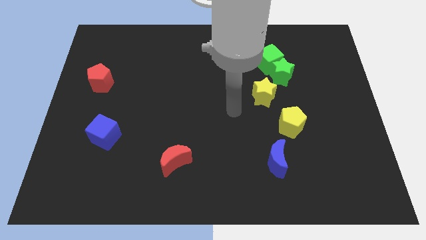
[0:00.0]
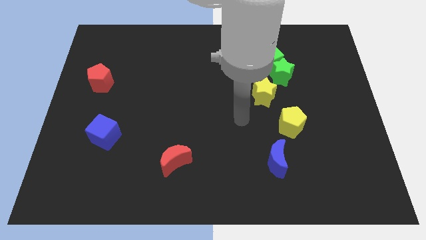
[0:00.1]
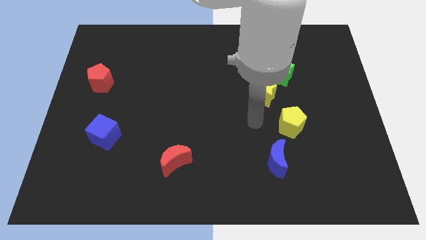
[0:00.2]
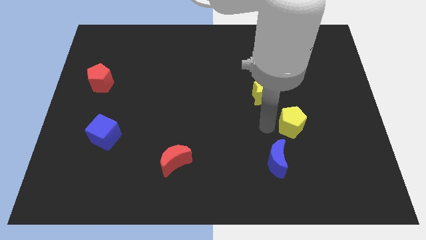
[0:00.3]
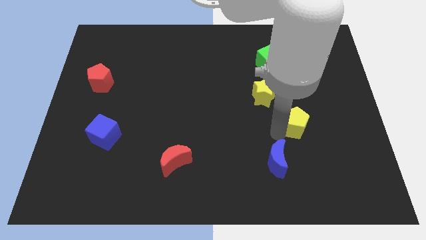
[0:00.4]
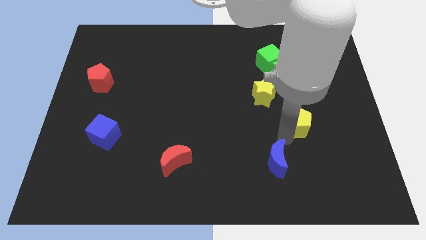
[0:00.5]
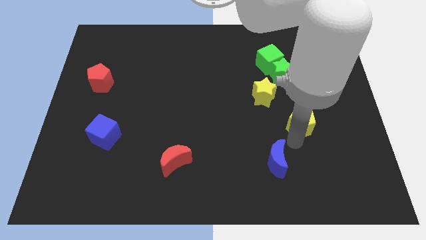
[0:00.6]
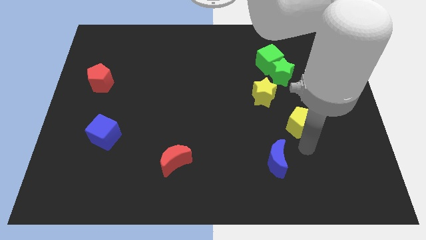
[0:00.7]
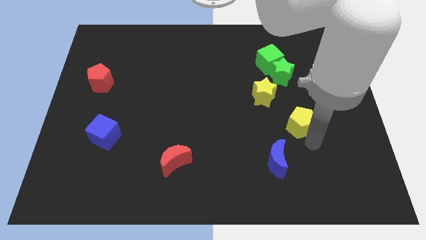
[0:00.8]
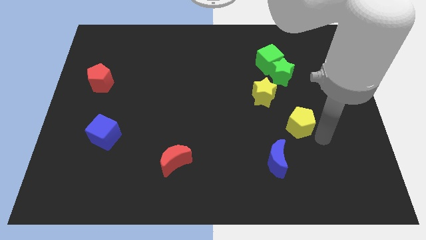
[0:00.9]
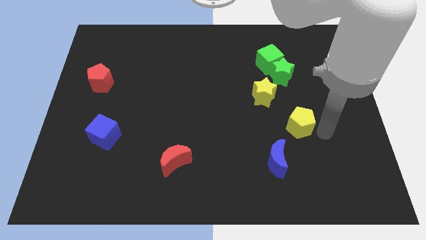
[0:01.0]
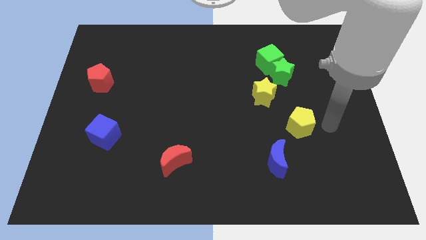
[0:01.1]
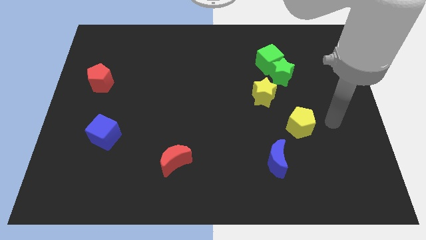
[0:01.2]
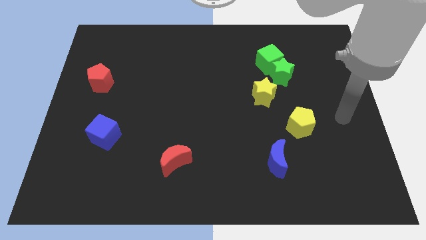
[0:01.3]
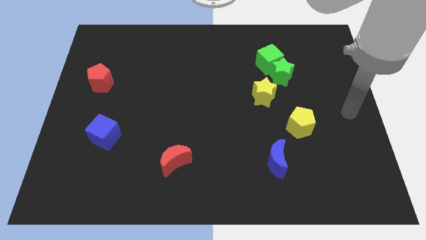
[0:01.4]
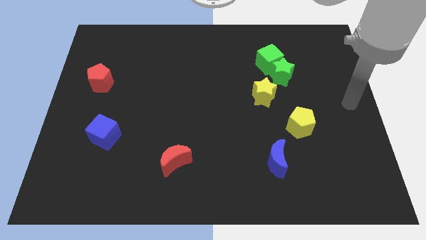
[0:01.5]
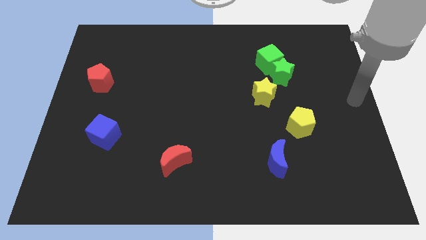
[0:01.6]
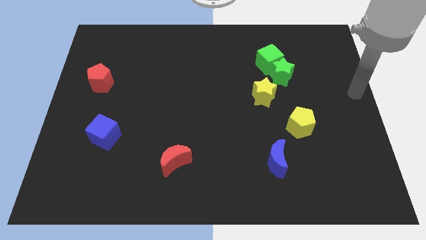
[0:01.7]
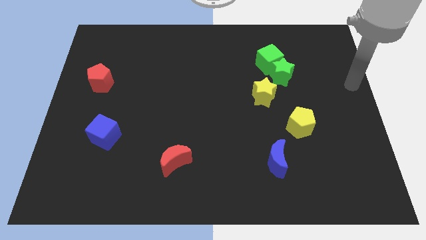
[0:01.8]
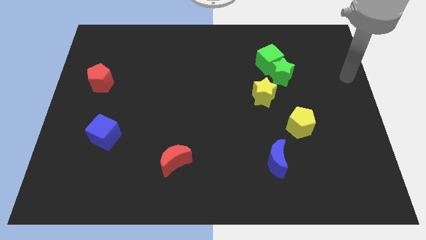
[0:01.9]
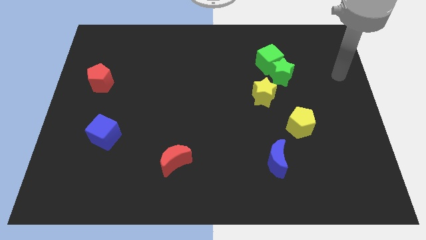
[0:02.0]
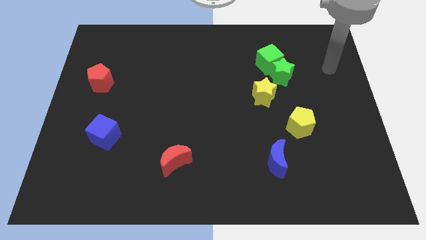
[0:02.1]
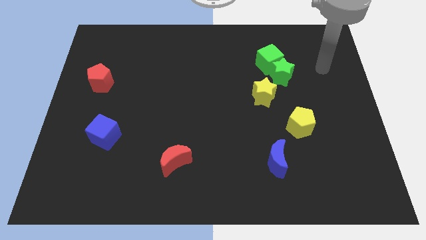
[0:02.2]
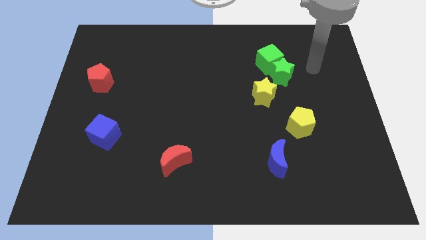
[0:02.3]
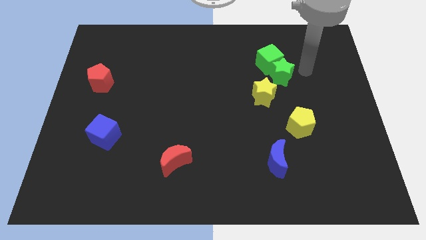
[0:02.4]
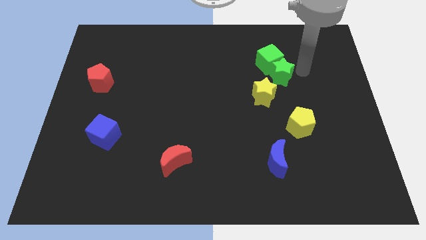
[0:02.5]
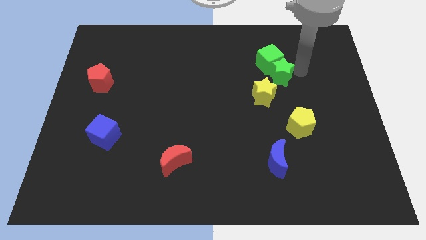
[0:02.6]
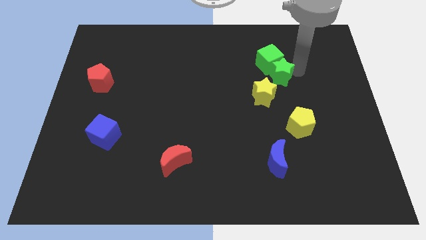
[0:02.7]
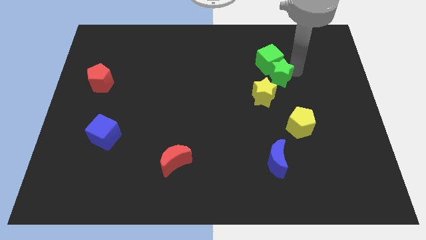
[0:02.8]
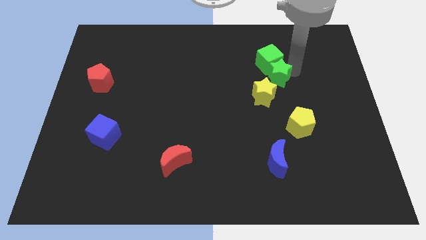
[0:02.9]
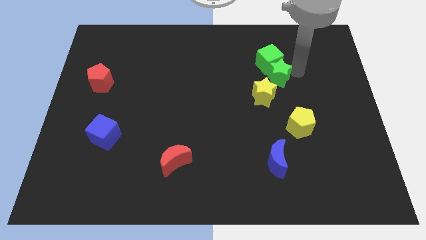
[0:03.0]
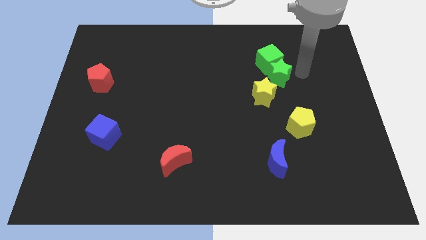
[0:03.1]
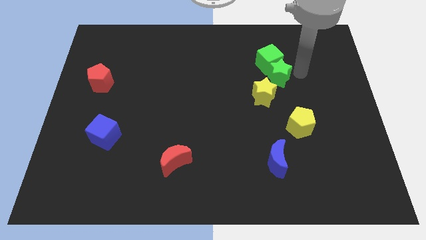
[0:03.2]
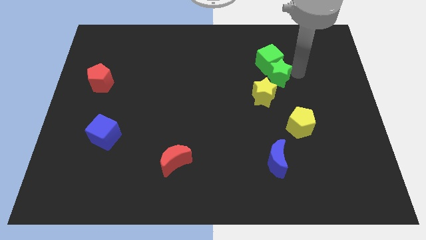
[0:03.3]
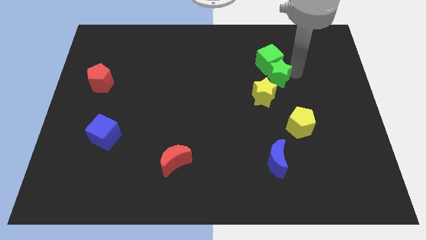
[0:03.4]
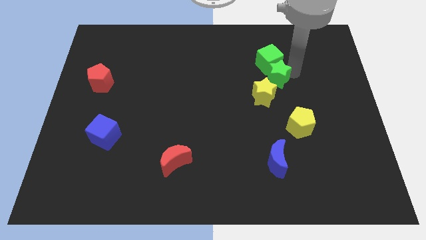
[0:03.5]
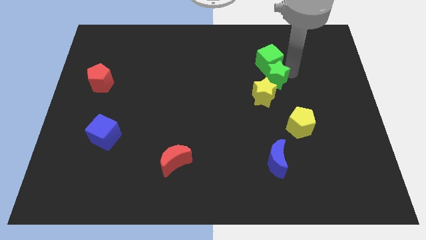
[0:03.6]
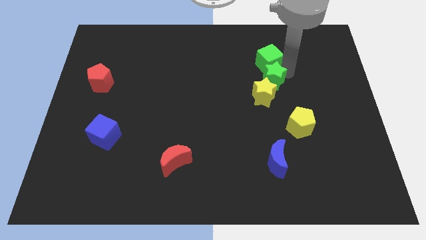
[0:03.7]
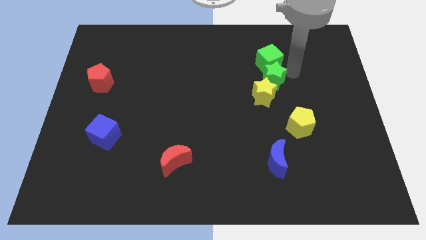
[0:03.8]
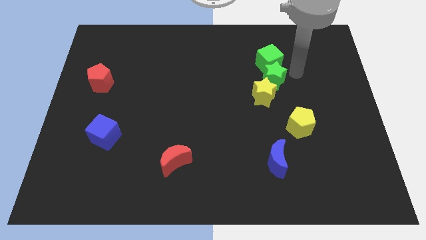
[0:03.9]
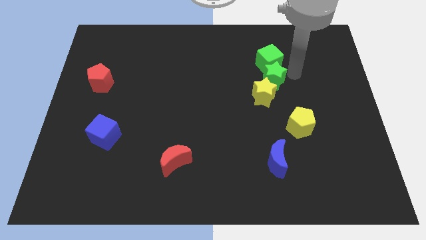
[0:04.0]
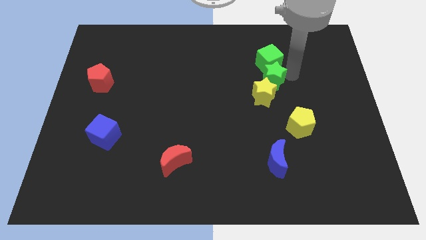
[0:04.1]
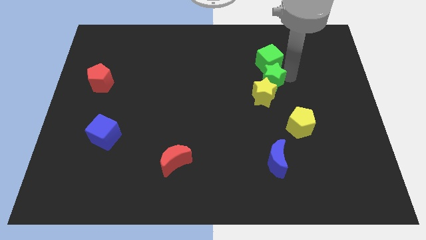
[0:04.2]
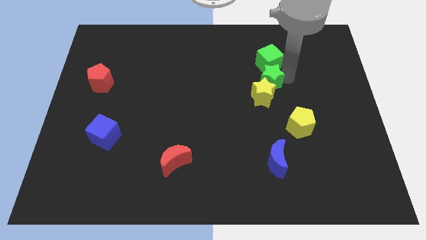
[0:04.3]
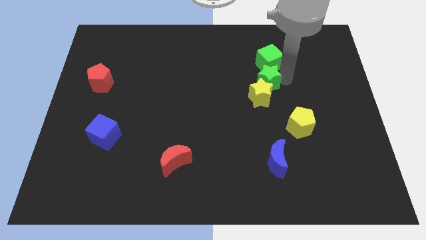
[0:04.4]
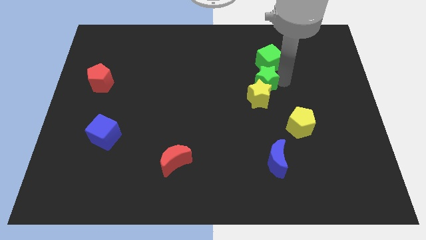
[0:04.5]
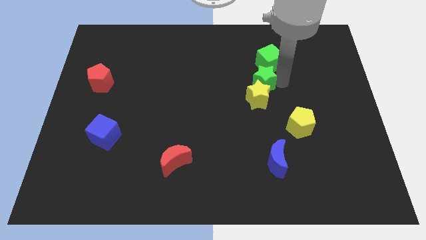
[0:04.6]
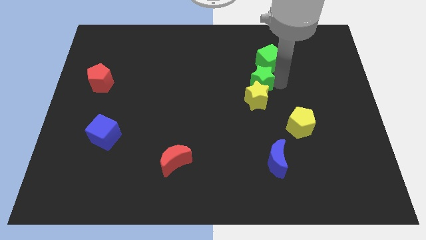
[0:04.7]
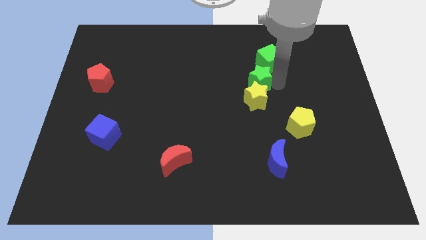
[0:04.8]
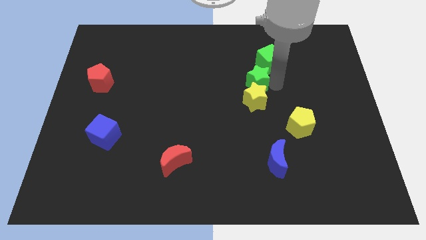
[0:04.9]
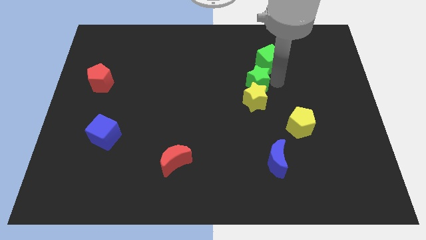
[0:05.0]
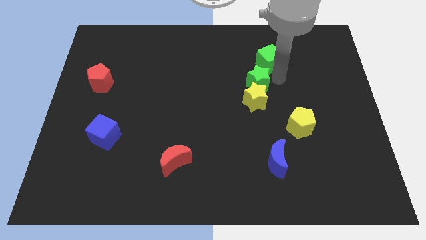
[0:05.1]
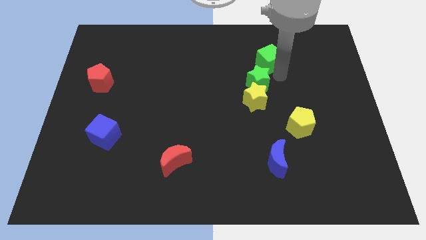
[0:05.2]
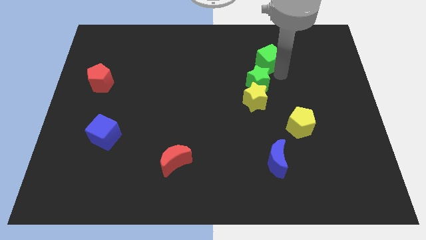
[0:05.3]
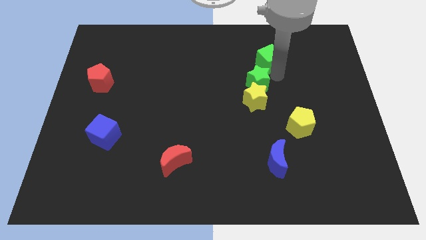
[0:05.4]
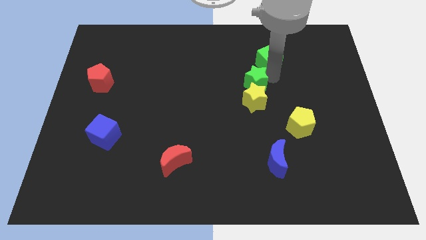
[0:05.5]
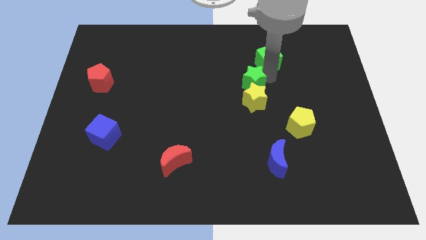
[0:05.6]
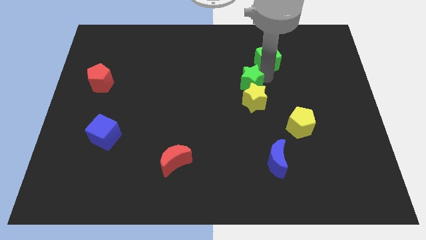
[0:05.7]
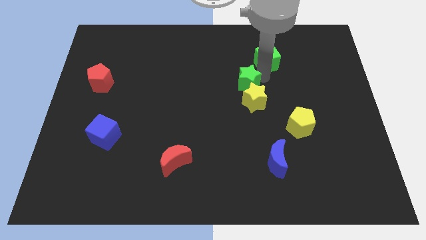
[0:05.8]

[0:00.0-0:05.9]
move the green star a bit downwards and left

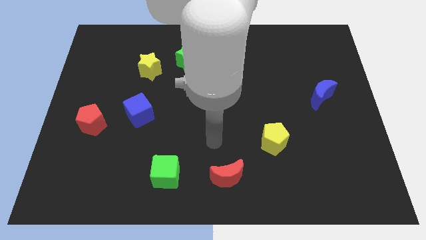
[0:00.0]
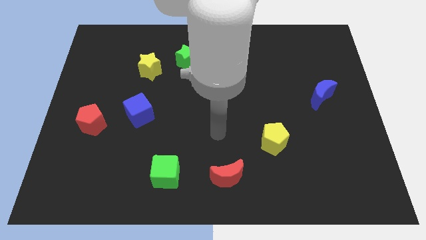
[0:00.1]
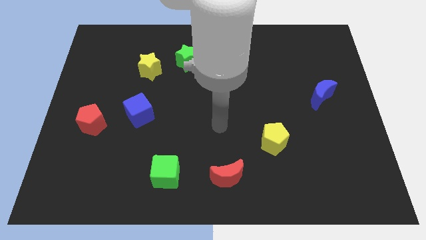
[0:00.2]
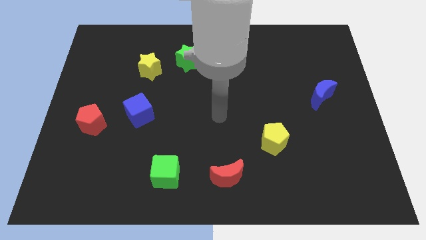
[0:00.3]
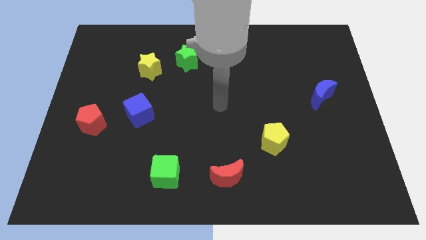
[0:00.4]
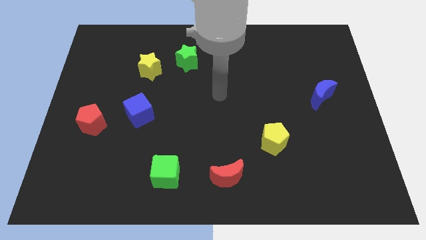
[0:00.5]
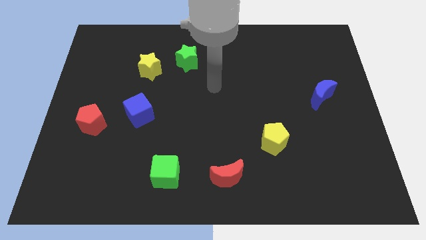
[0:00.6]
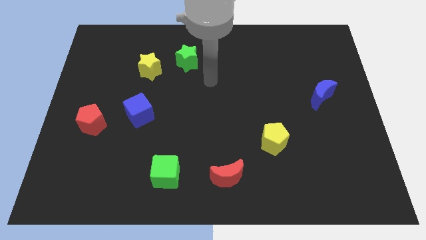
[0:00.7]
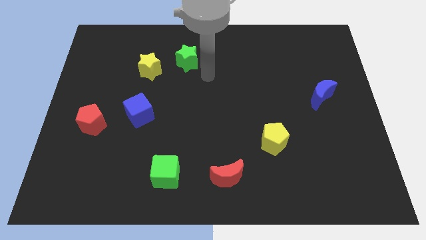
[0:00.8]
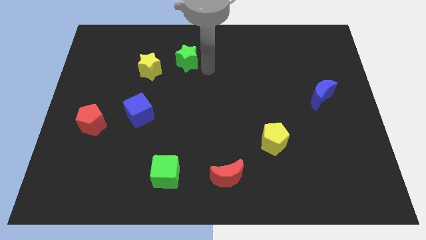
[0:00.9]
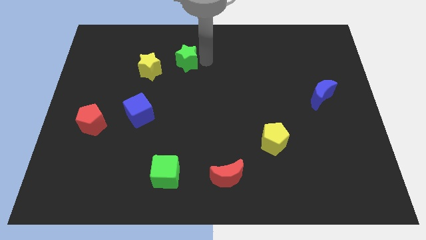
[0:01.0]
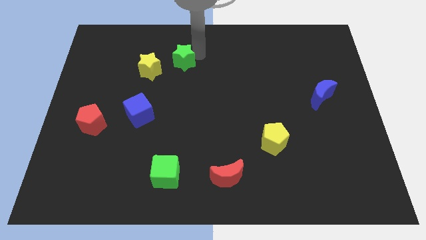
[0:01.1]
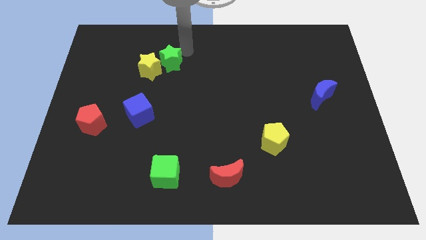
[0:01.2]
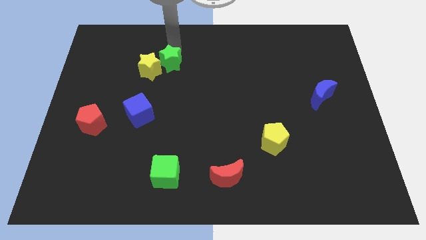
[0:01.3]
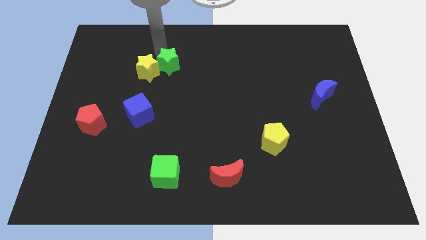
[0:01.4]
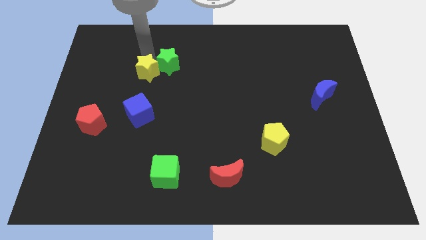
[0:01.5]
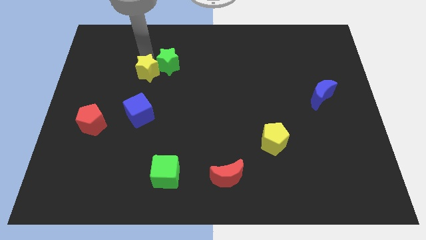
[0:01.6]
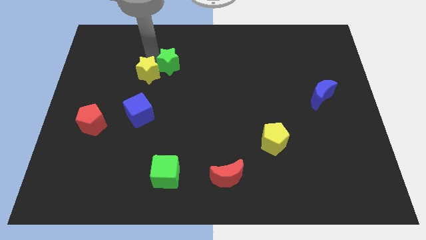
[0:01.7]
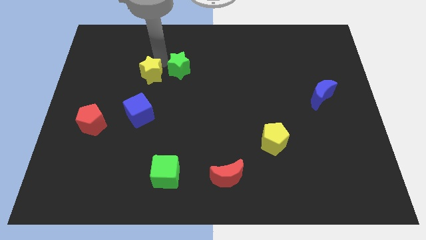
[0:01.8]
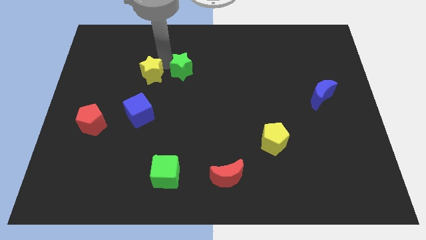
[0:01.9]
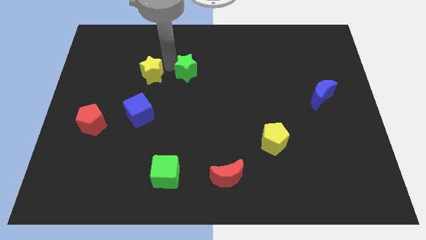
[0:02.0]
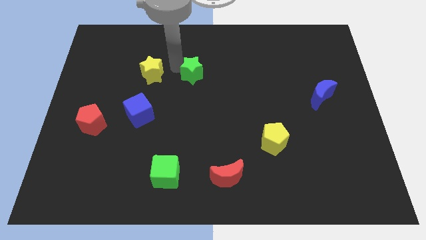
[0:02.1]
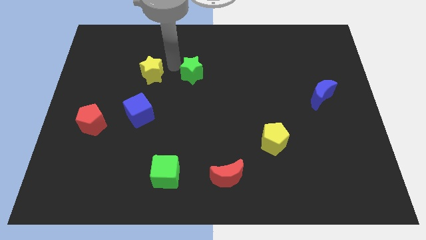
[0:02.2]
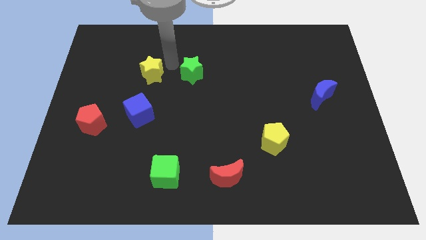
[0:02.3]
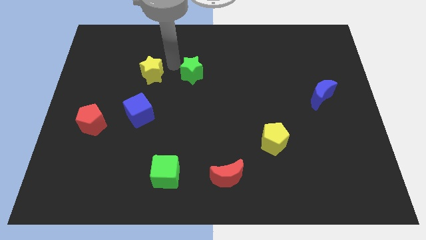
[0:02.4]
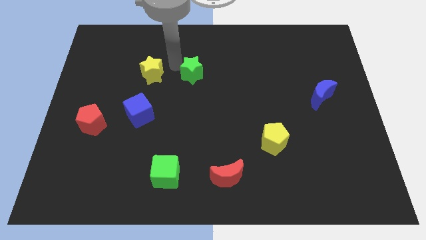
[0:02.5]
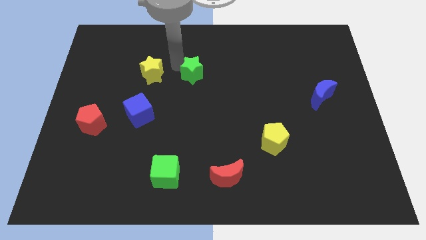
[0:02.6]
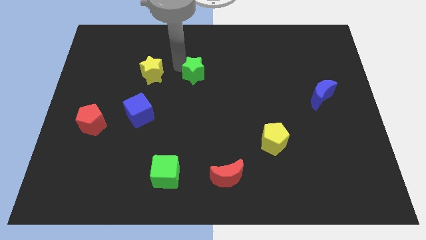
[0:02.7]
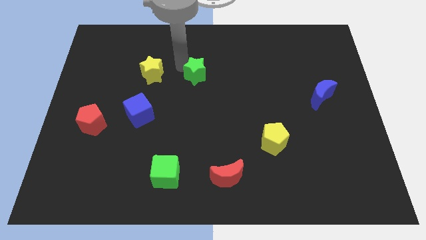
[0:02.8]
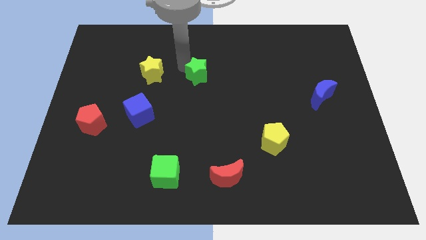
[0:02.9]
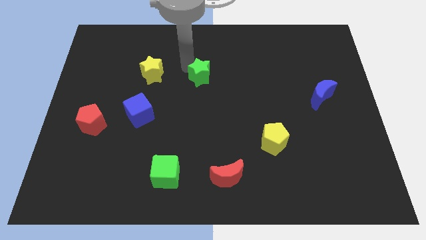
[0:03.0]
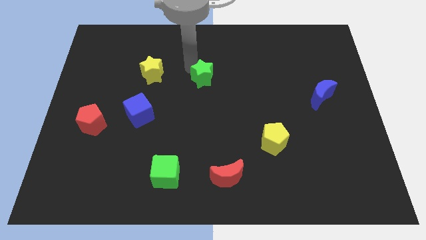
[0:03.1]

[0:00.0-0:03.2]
slide the green star slightly downwards and to the right diagonally
